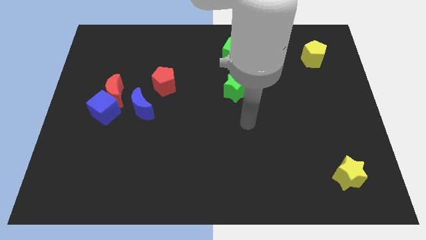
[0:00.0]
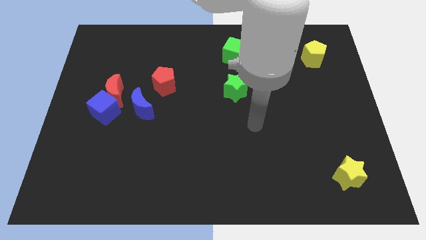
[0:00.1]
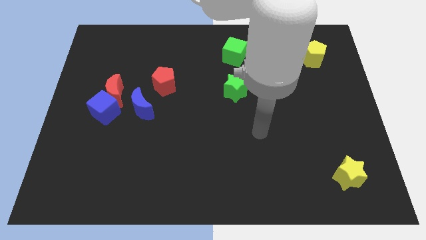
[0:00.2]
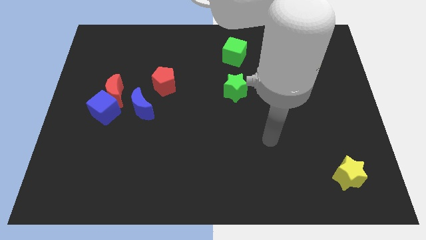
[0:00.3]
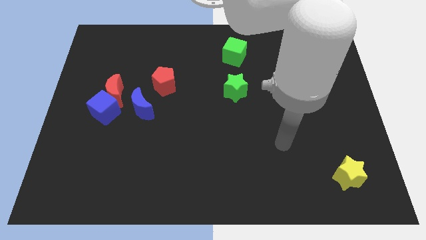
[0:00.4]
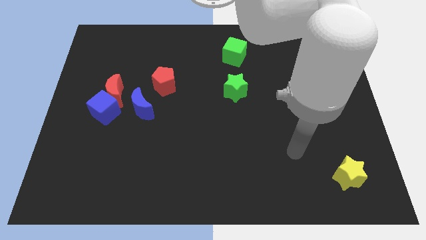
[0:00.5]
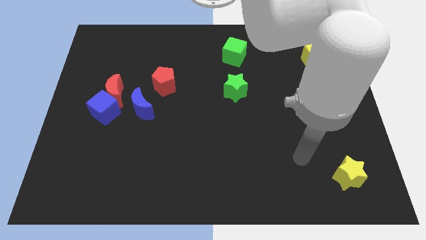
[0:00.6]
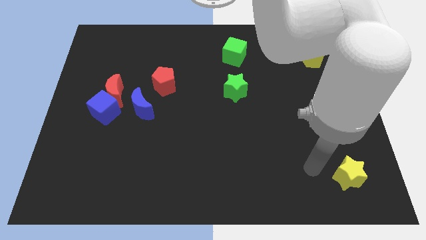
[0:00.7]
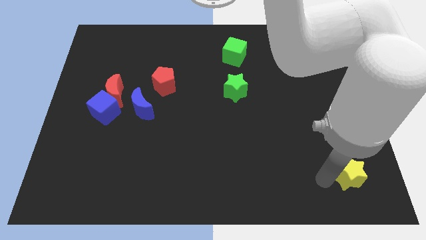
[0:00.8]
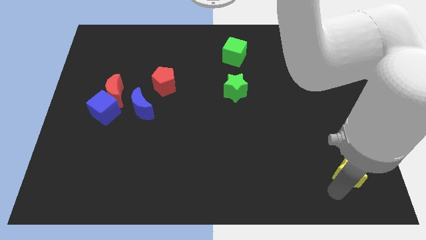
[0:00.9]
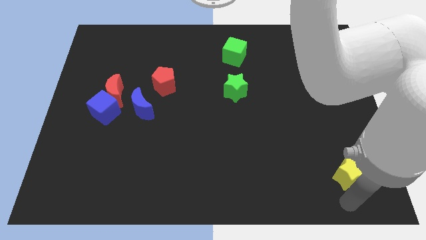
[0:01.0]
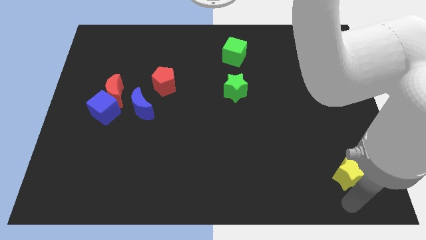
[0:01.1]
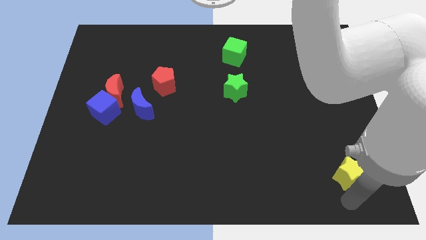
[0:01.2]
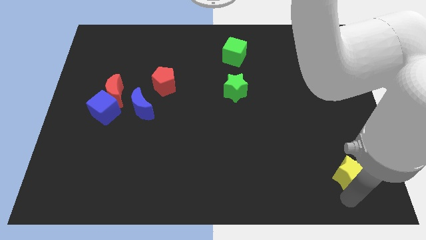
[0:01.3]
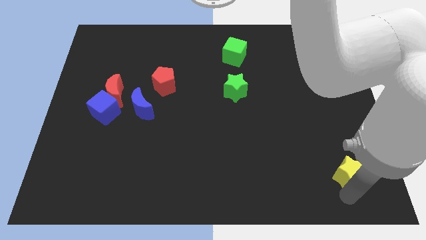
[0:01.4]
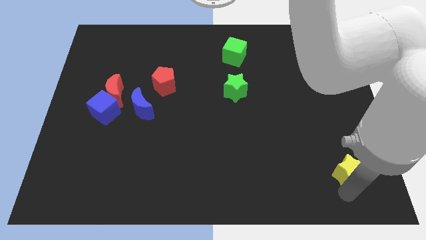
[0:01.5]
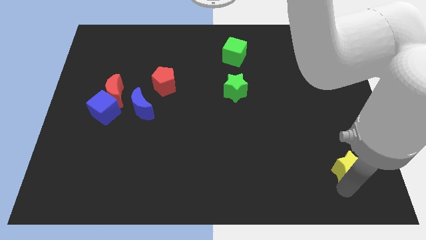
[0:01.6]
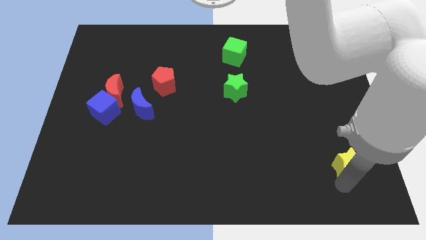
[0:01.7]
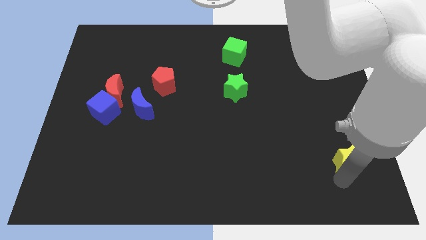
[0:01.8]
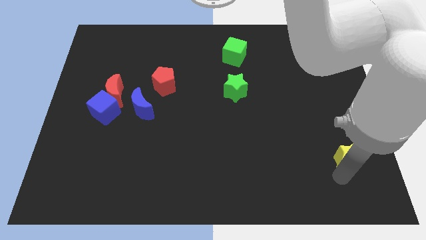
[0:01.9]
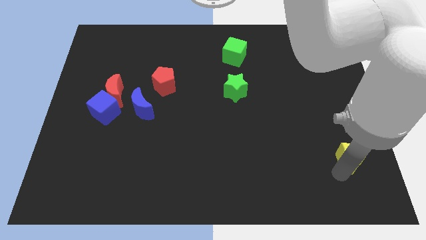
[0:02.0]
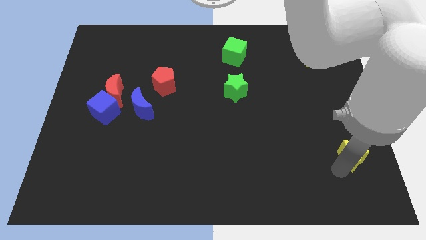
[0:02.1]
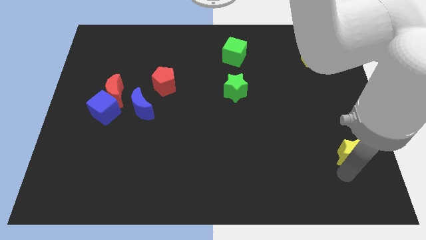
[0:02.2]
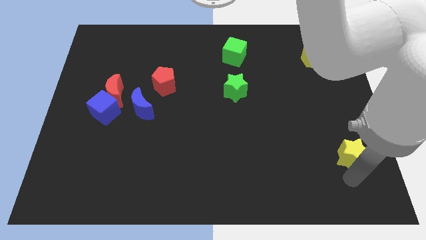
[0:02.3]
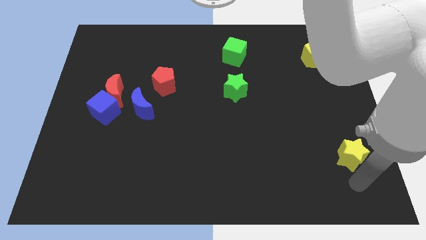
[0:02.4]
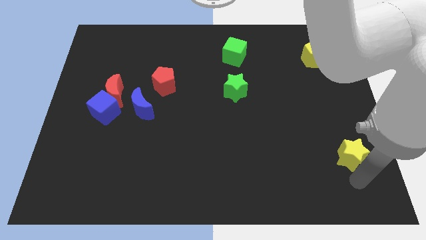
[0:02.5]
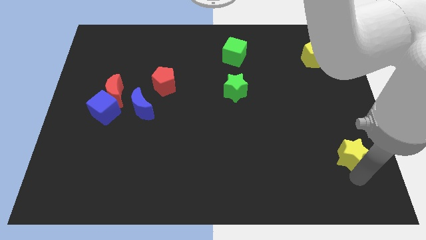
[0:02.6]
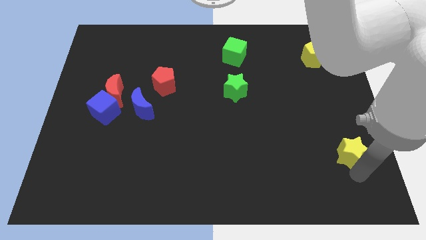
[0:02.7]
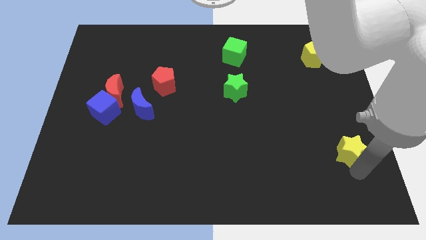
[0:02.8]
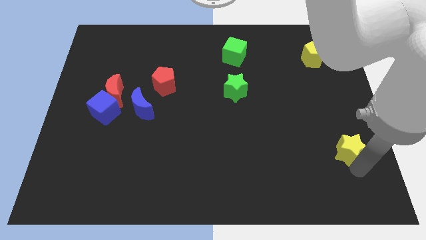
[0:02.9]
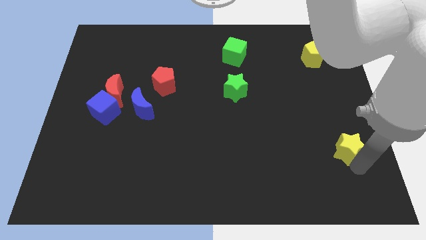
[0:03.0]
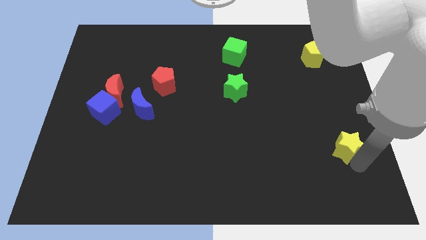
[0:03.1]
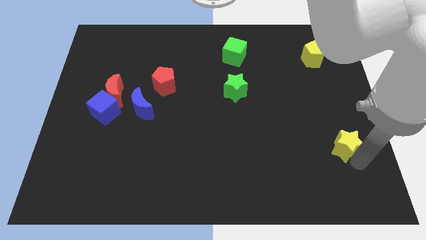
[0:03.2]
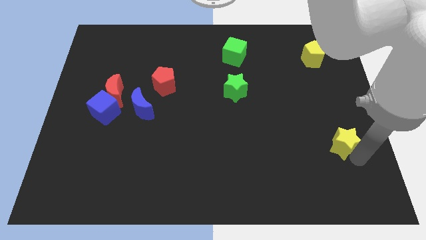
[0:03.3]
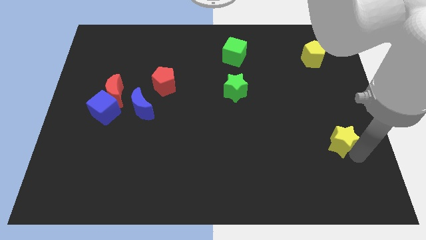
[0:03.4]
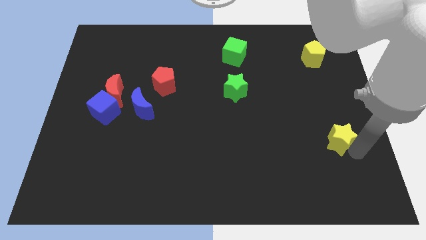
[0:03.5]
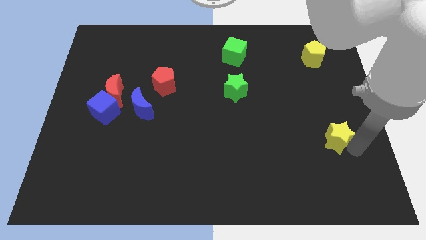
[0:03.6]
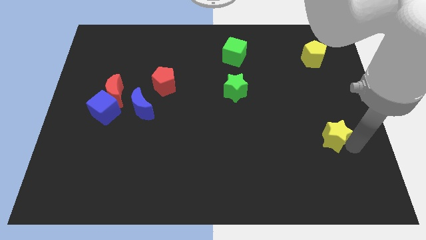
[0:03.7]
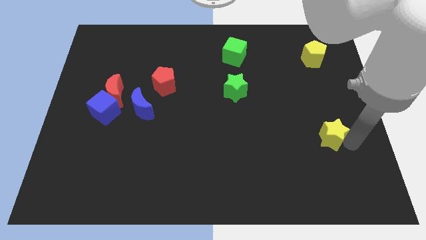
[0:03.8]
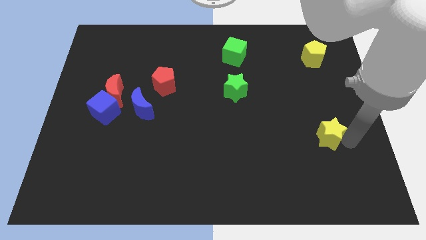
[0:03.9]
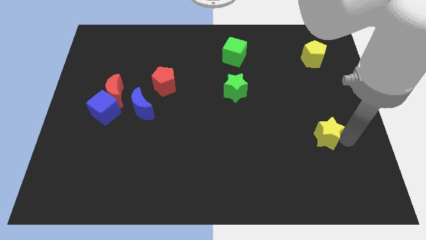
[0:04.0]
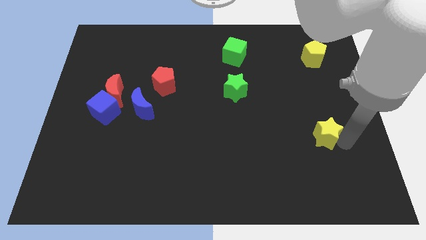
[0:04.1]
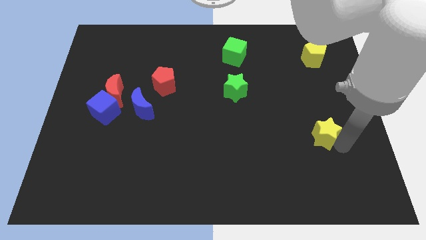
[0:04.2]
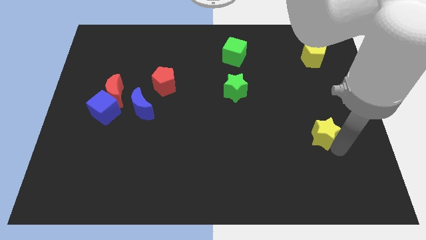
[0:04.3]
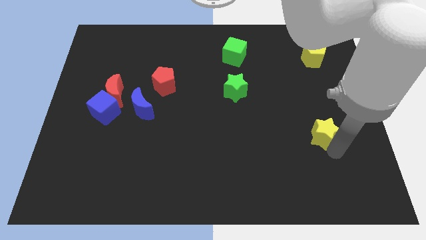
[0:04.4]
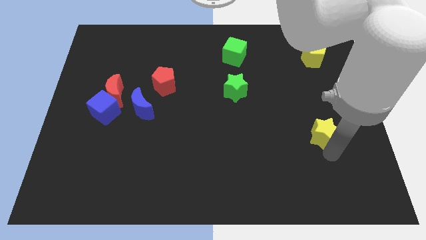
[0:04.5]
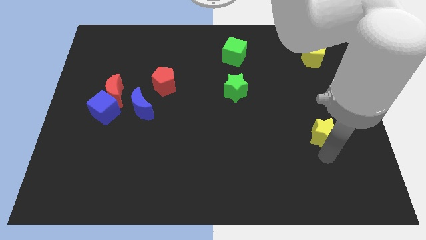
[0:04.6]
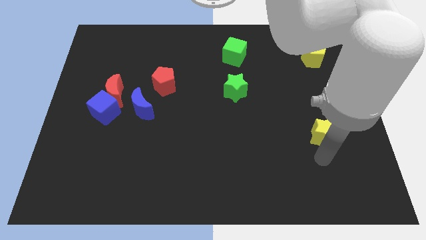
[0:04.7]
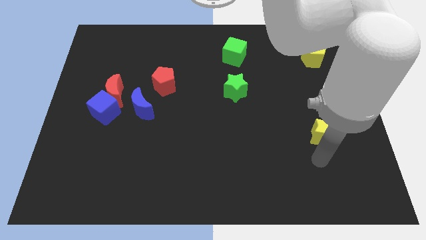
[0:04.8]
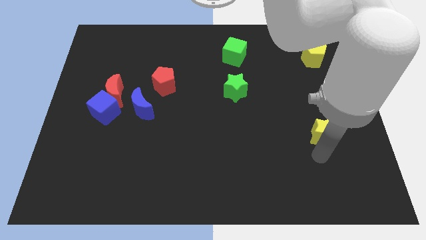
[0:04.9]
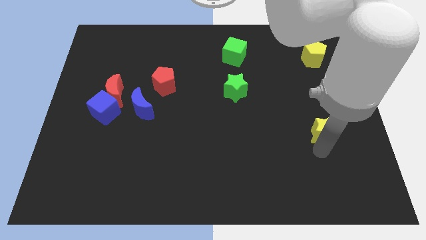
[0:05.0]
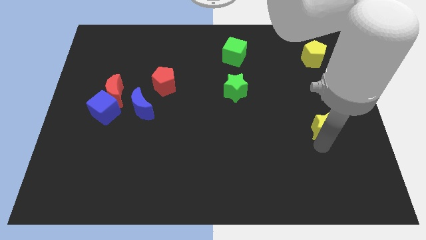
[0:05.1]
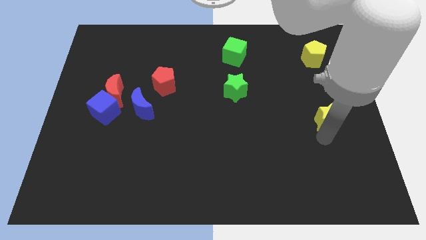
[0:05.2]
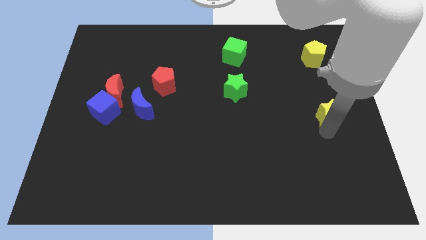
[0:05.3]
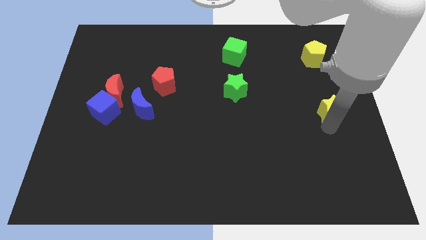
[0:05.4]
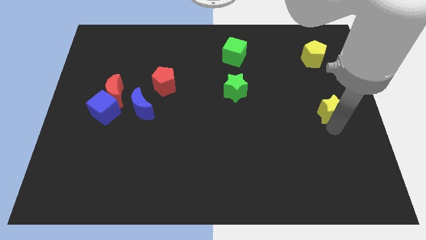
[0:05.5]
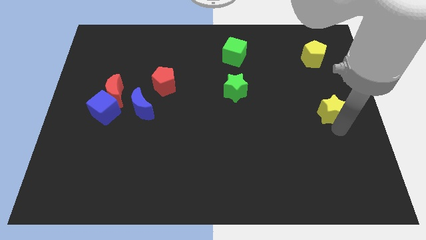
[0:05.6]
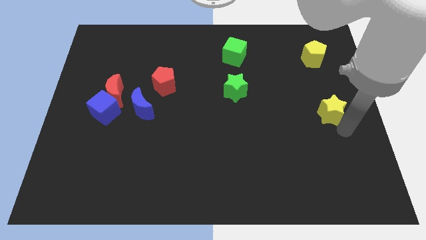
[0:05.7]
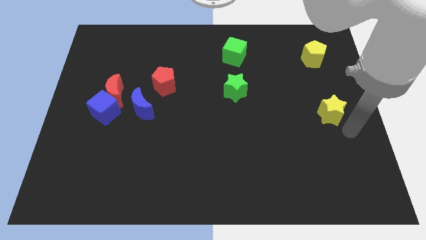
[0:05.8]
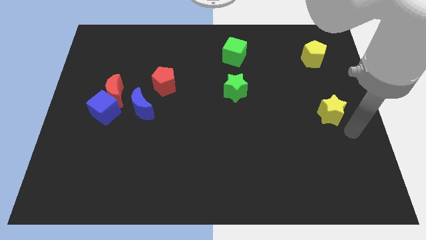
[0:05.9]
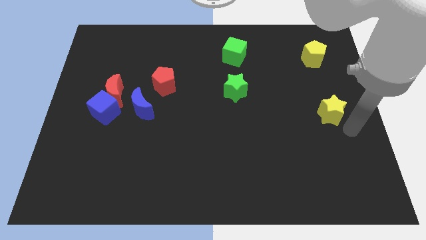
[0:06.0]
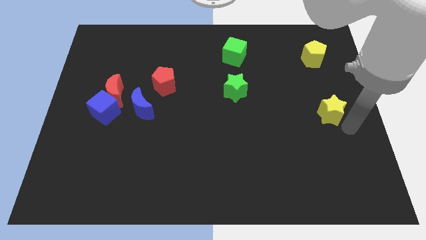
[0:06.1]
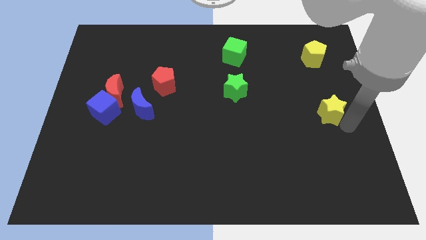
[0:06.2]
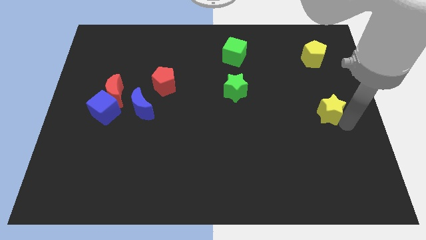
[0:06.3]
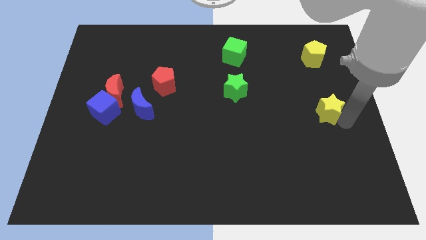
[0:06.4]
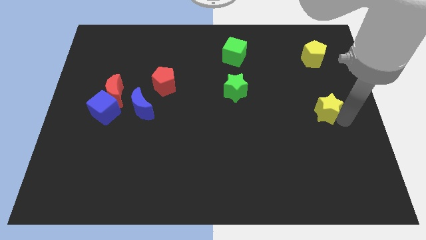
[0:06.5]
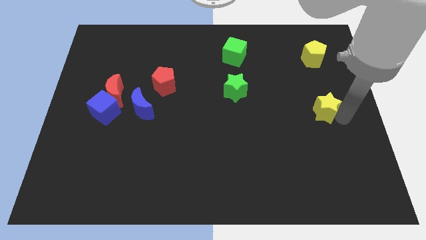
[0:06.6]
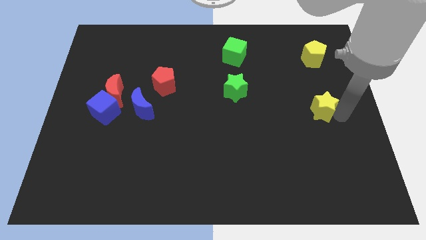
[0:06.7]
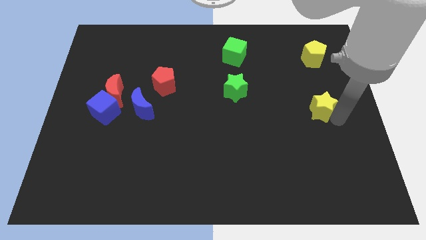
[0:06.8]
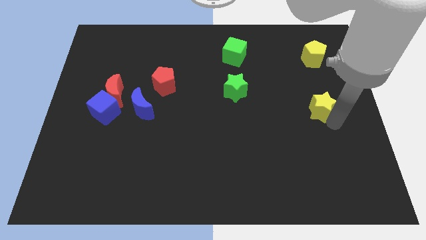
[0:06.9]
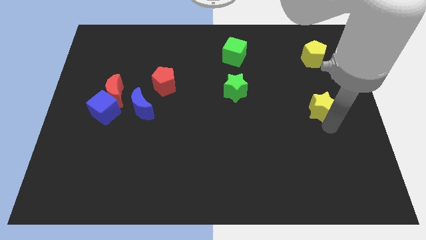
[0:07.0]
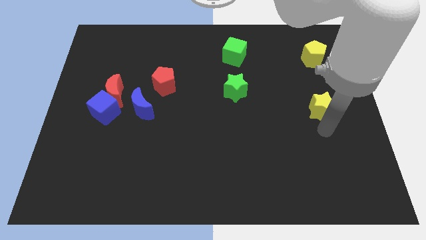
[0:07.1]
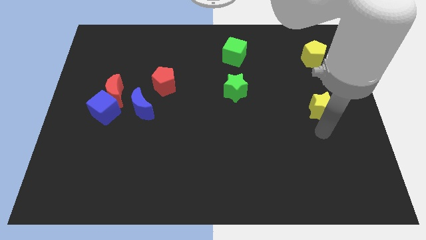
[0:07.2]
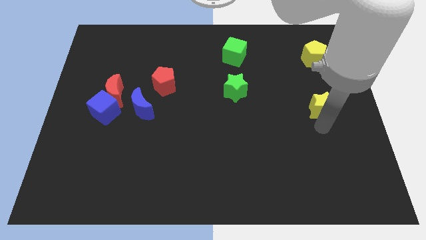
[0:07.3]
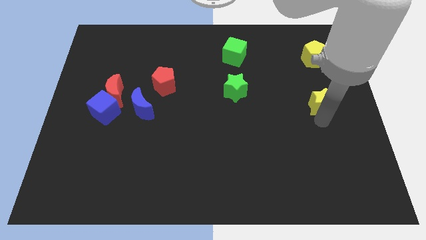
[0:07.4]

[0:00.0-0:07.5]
put the yellow star to the bottom side of the yellow pentagon
